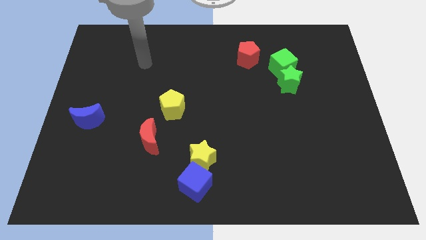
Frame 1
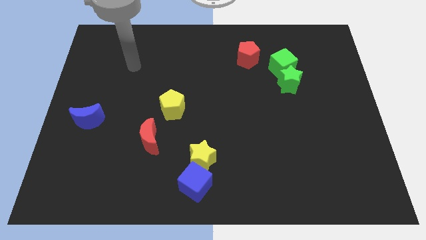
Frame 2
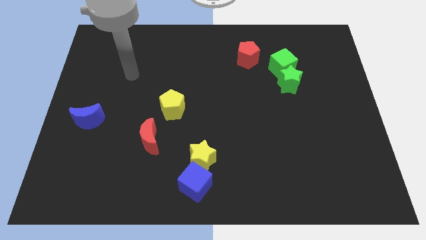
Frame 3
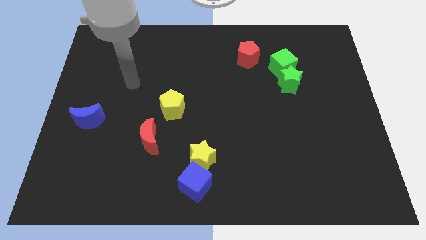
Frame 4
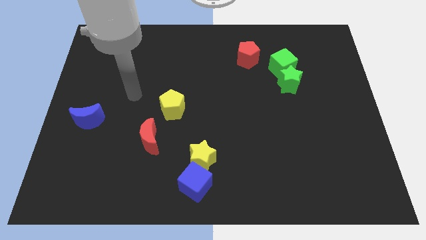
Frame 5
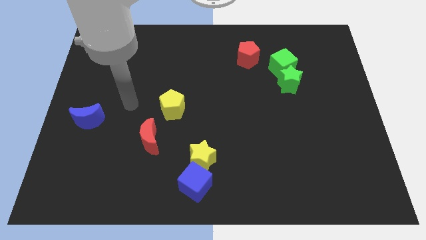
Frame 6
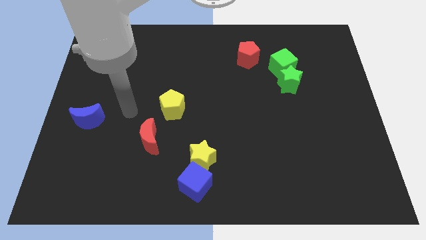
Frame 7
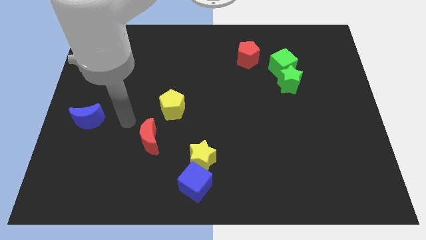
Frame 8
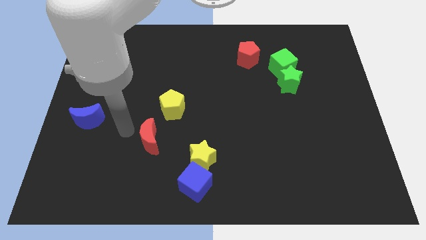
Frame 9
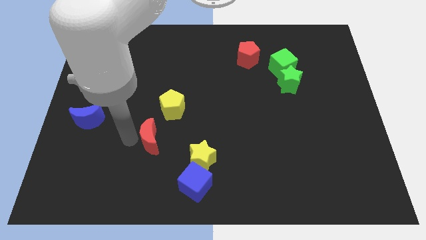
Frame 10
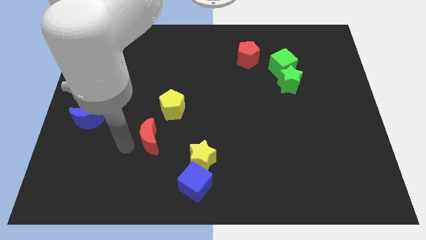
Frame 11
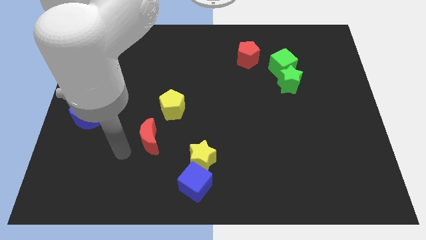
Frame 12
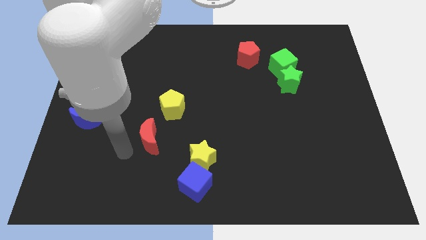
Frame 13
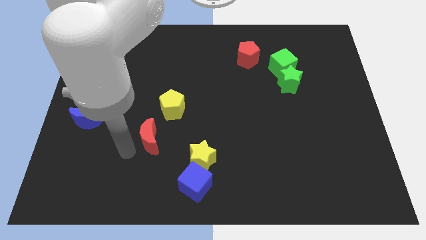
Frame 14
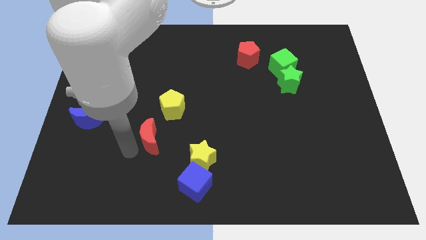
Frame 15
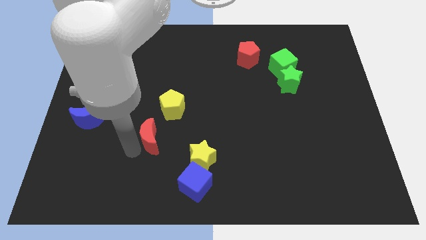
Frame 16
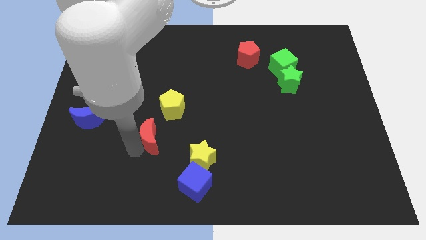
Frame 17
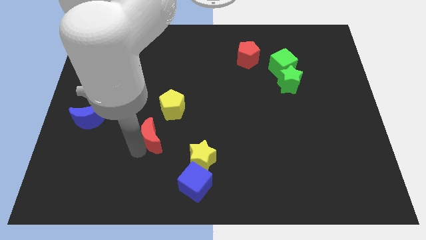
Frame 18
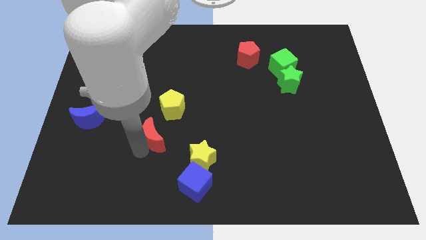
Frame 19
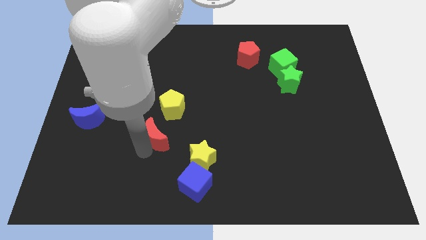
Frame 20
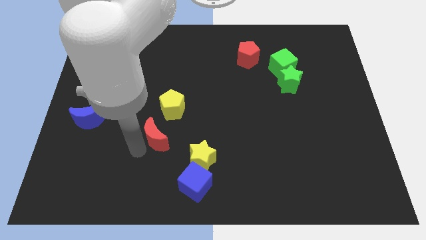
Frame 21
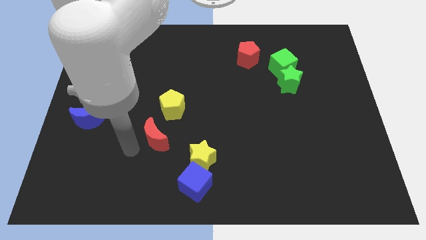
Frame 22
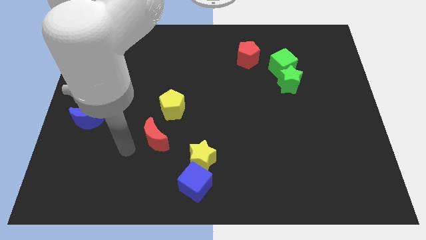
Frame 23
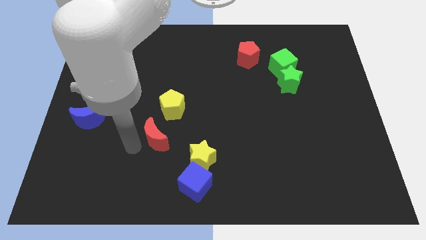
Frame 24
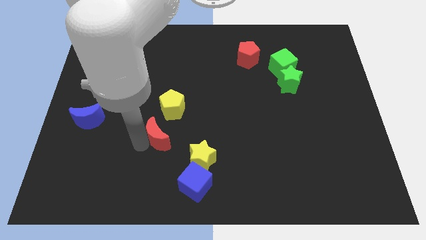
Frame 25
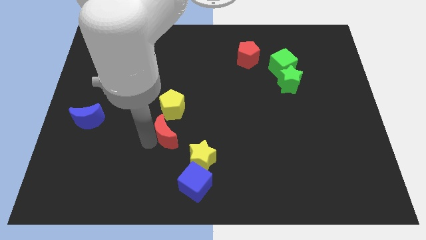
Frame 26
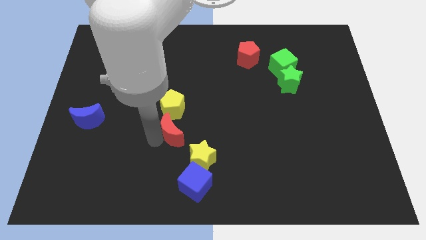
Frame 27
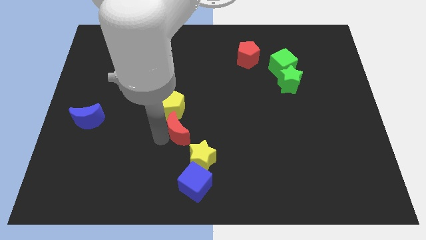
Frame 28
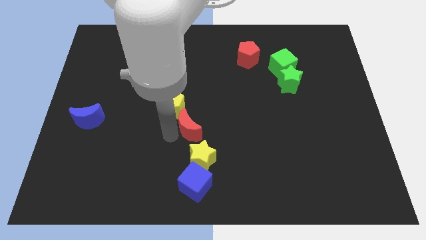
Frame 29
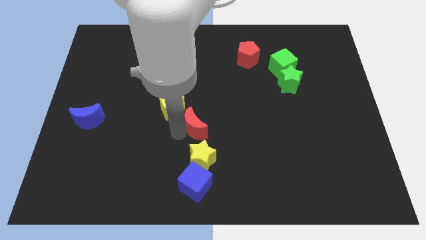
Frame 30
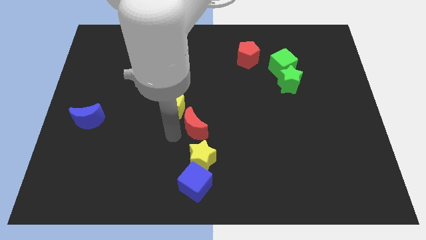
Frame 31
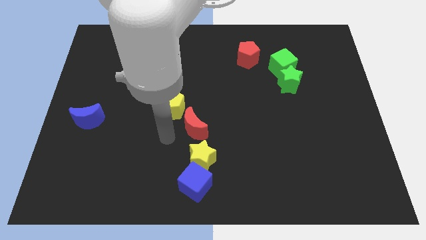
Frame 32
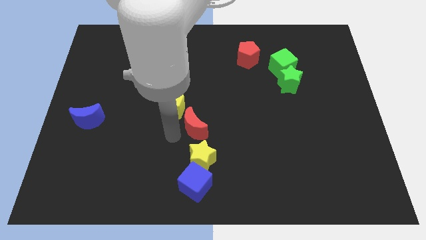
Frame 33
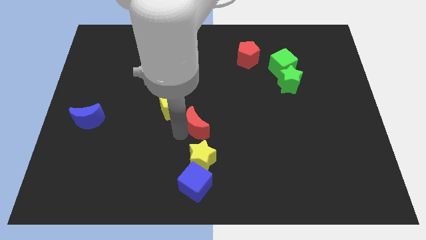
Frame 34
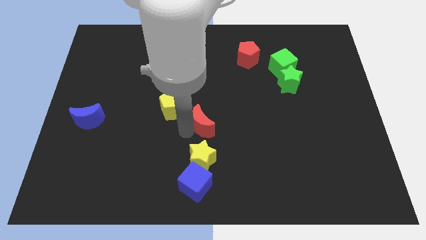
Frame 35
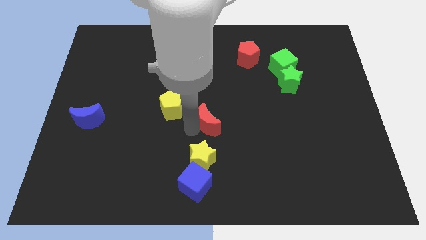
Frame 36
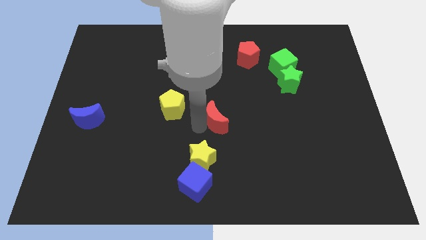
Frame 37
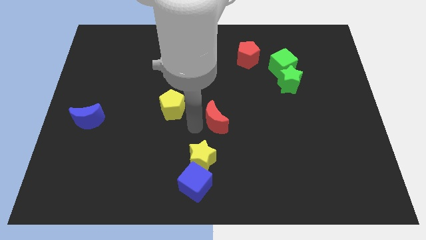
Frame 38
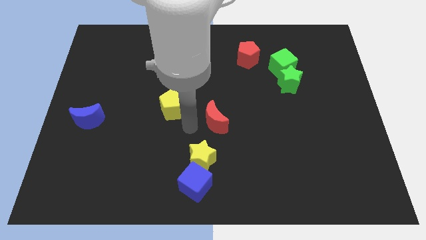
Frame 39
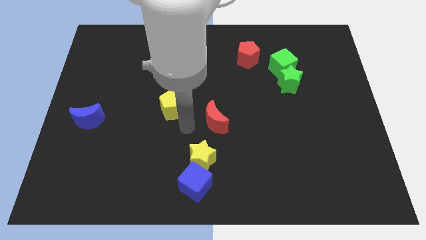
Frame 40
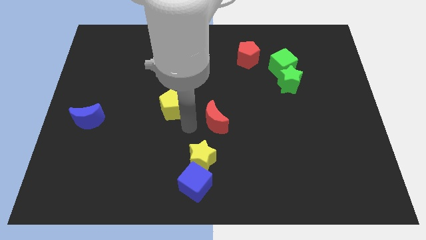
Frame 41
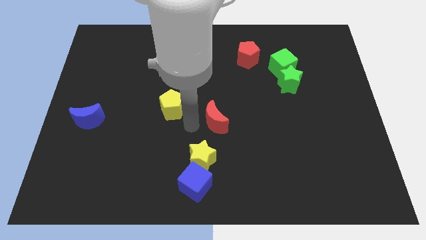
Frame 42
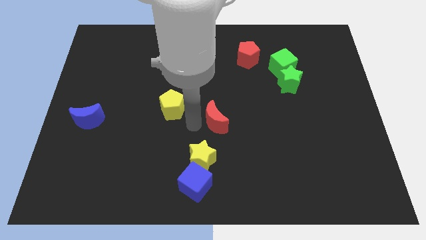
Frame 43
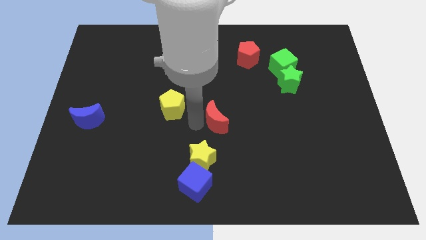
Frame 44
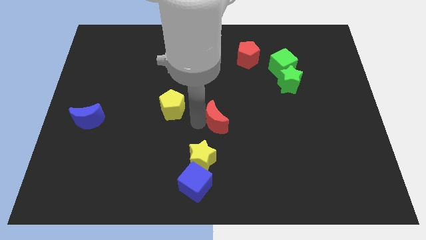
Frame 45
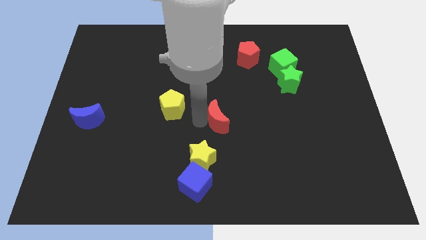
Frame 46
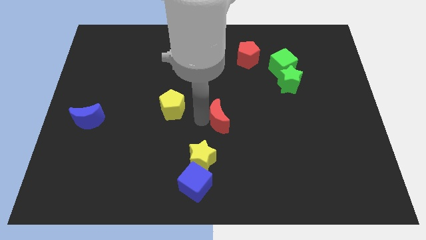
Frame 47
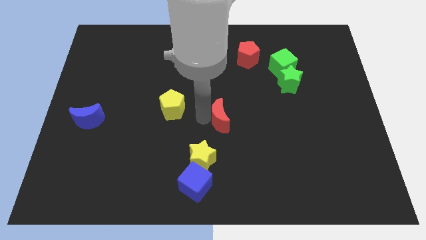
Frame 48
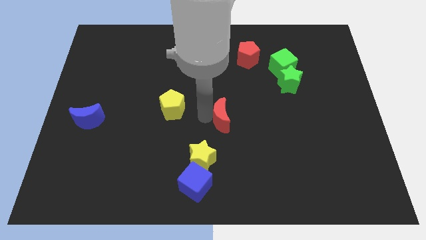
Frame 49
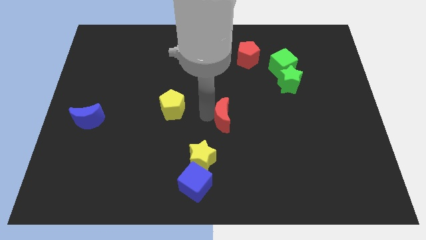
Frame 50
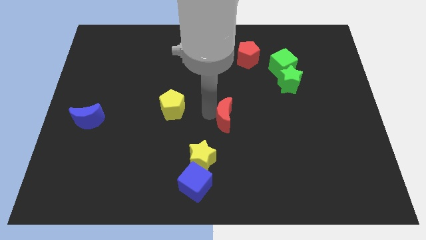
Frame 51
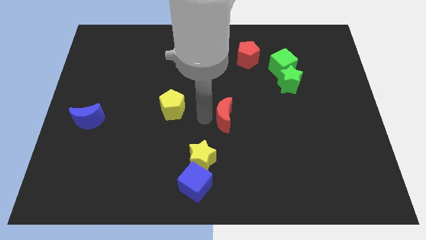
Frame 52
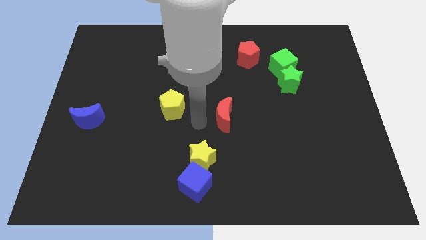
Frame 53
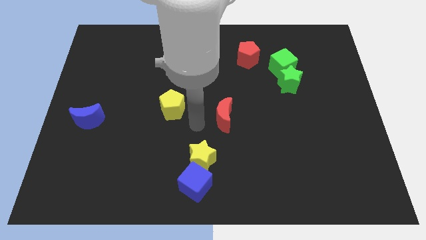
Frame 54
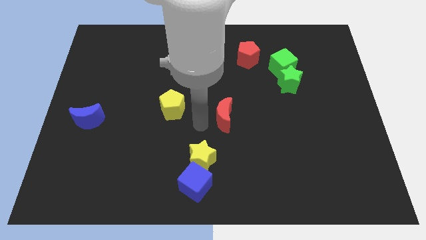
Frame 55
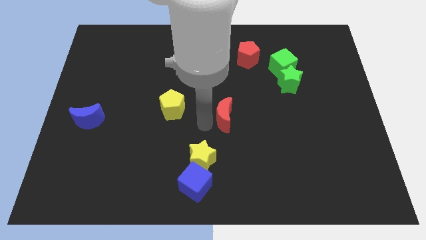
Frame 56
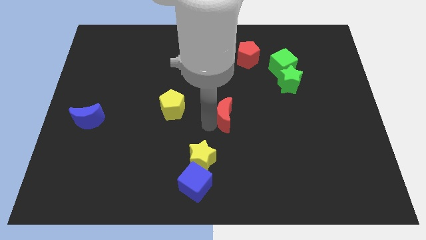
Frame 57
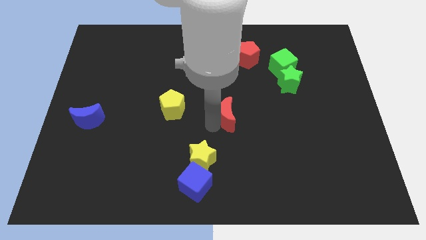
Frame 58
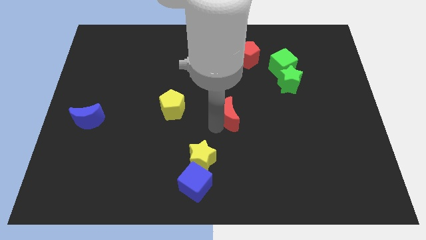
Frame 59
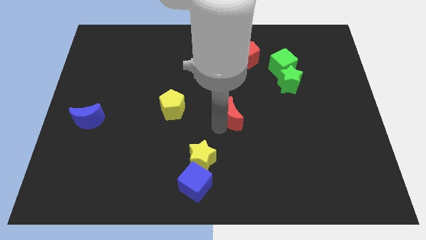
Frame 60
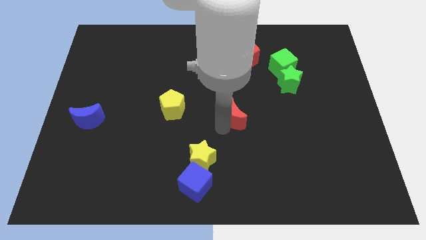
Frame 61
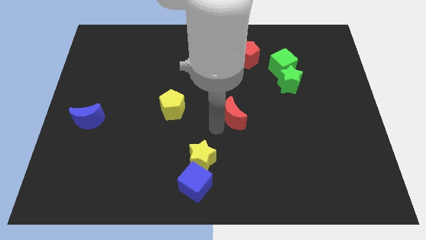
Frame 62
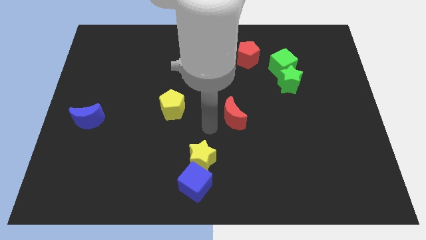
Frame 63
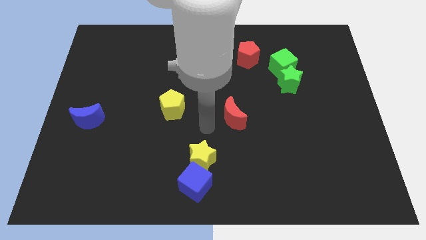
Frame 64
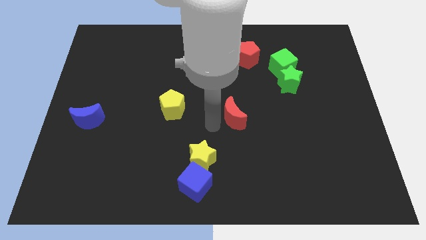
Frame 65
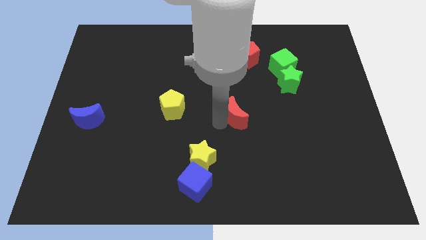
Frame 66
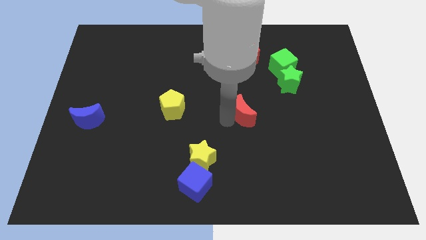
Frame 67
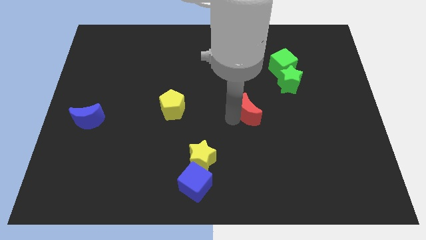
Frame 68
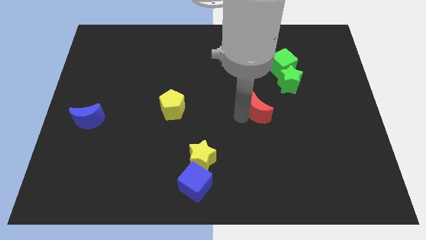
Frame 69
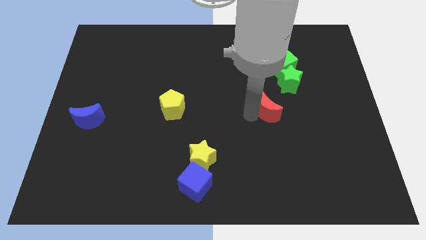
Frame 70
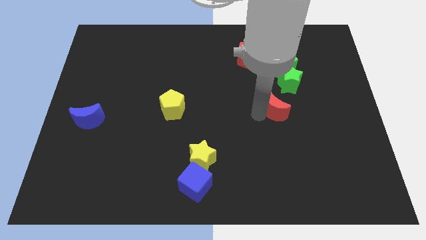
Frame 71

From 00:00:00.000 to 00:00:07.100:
push the red moon to the bottom of the green cube
